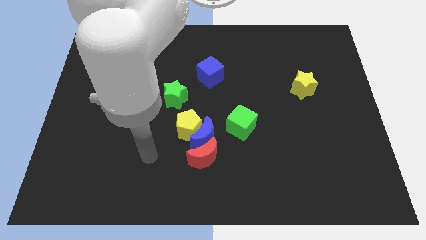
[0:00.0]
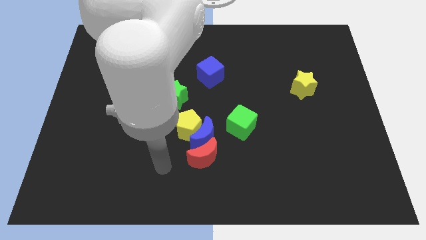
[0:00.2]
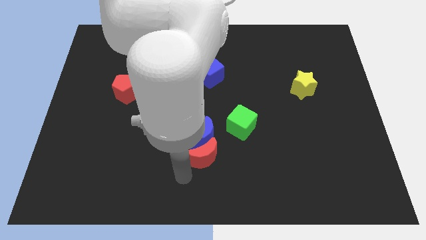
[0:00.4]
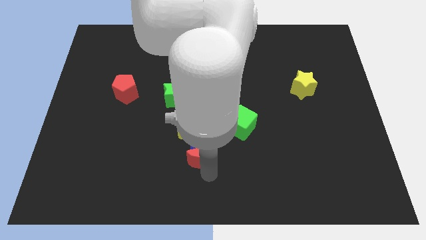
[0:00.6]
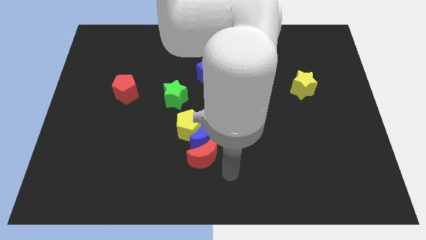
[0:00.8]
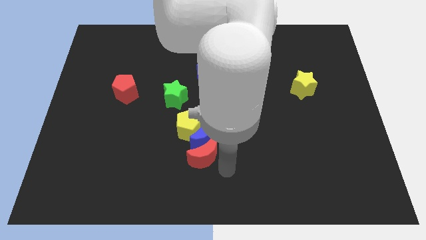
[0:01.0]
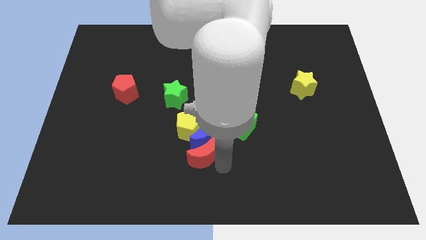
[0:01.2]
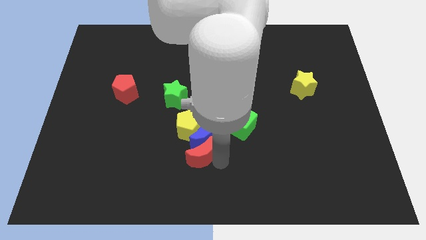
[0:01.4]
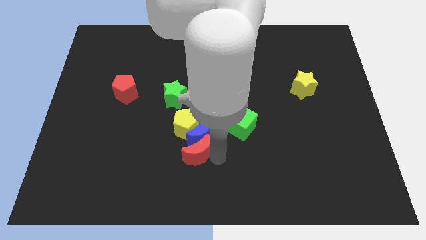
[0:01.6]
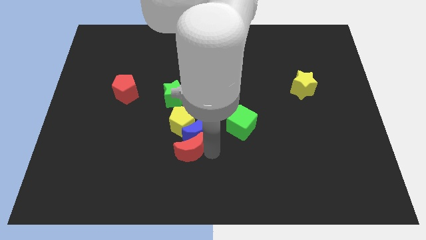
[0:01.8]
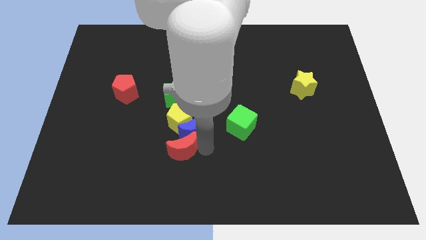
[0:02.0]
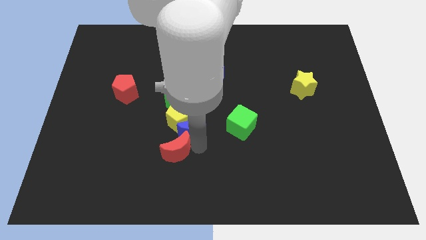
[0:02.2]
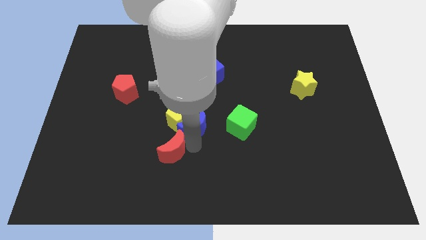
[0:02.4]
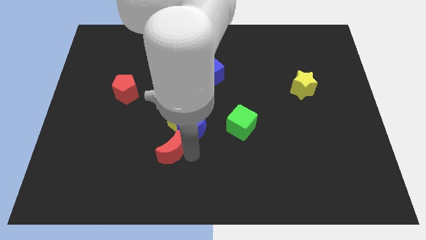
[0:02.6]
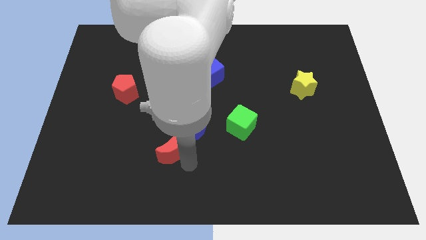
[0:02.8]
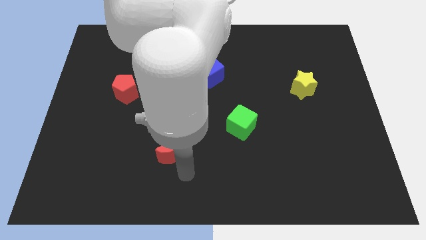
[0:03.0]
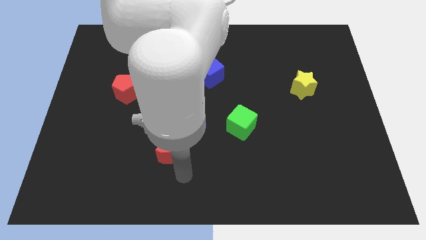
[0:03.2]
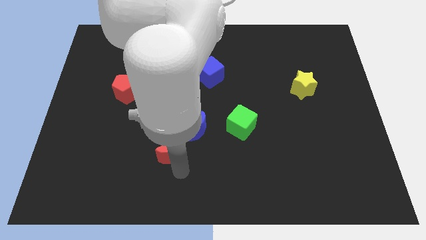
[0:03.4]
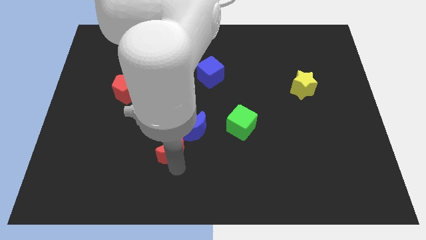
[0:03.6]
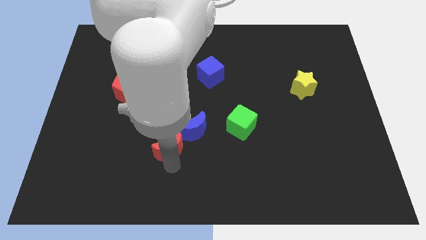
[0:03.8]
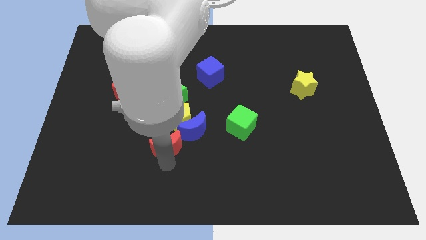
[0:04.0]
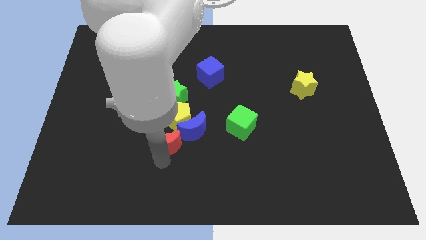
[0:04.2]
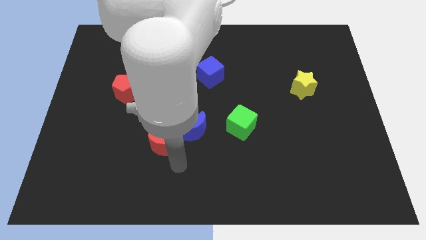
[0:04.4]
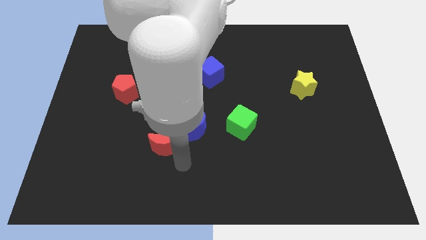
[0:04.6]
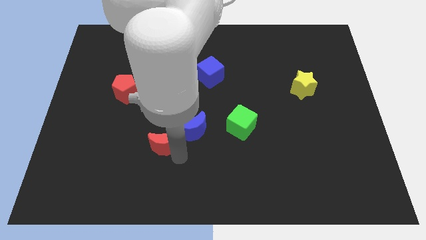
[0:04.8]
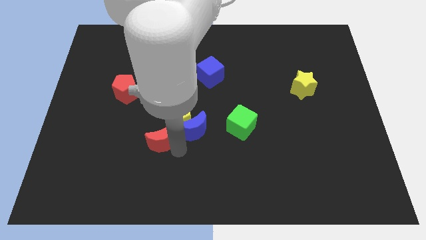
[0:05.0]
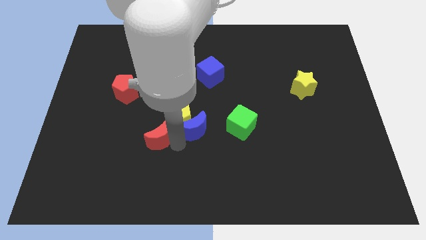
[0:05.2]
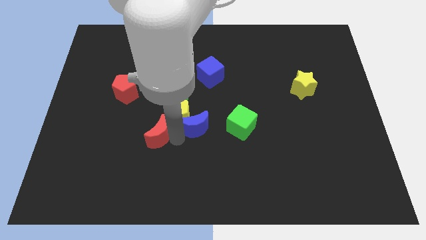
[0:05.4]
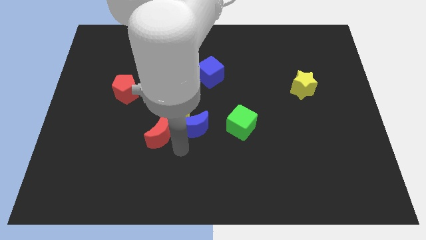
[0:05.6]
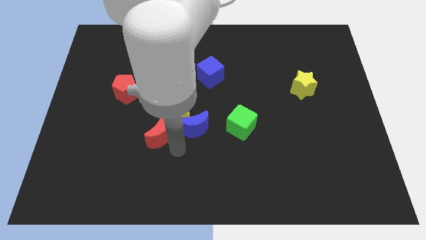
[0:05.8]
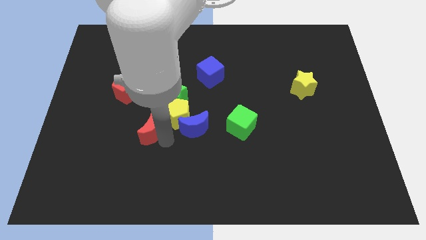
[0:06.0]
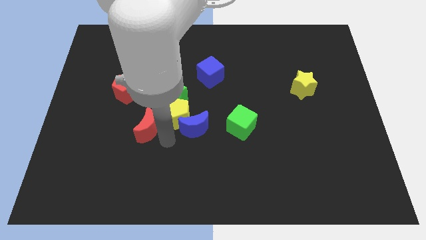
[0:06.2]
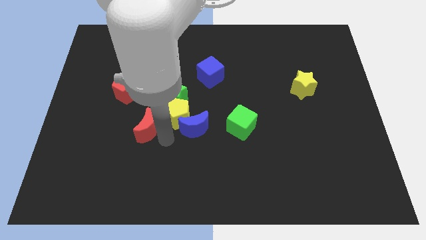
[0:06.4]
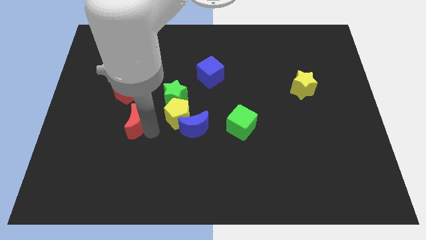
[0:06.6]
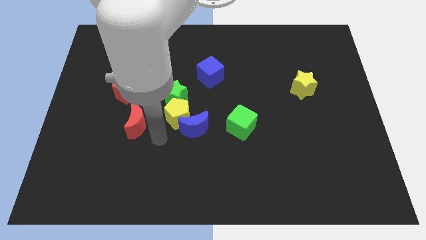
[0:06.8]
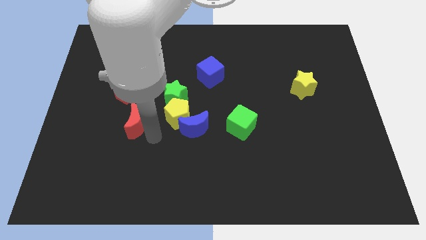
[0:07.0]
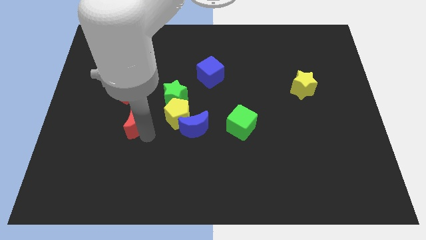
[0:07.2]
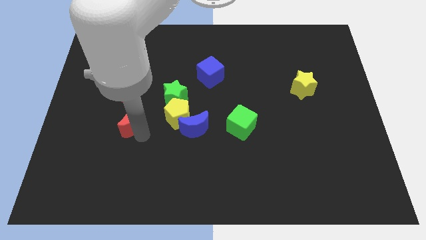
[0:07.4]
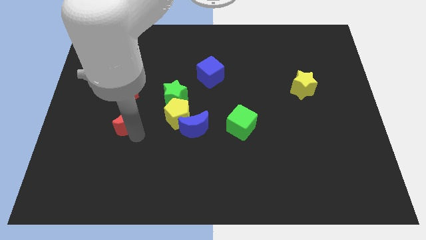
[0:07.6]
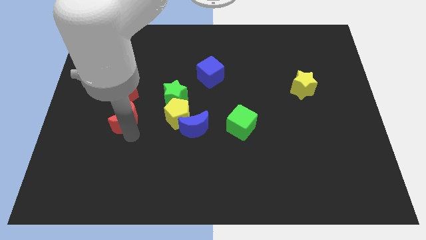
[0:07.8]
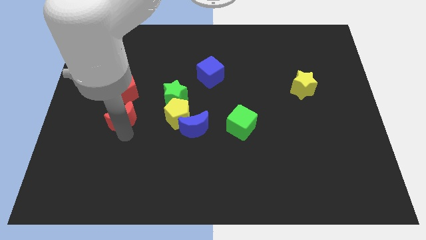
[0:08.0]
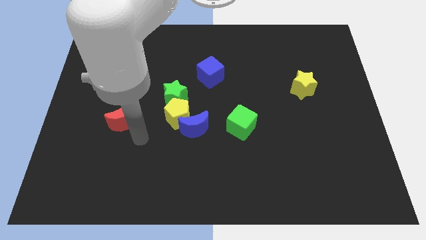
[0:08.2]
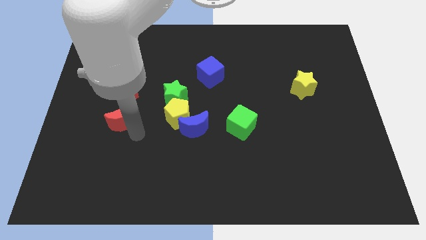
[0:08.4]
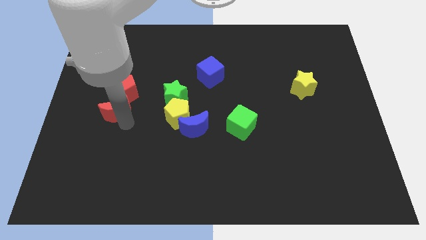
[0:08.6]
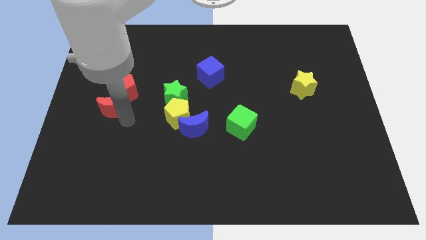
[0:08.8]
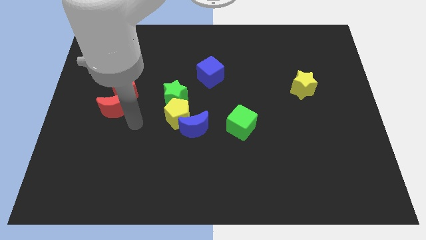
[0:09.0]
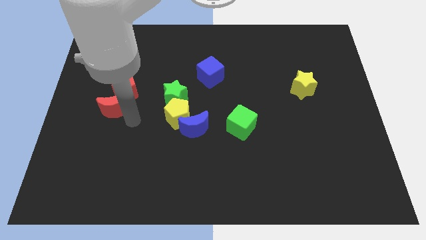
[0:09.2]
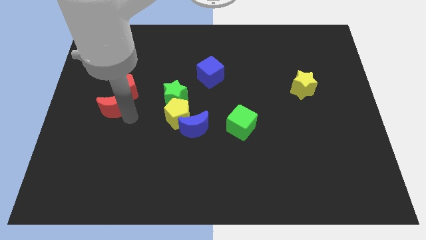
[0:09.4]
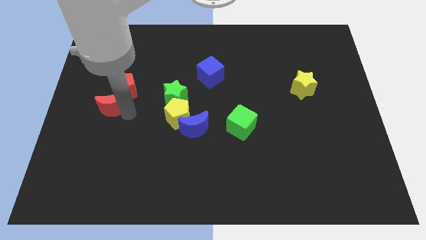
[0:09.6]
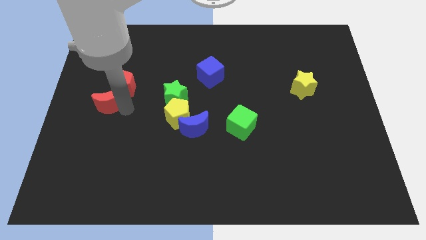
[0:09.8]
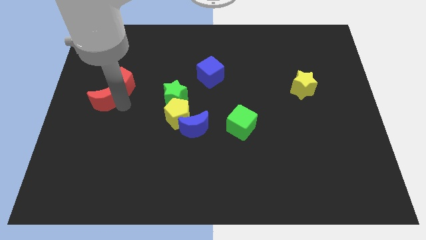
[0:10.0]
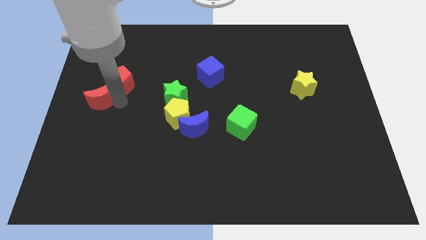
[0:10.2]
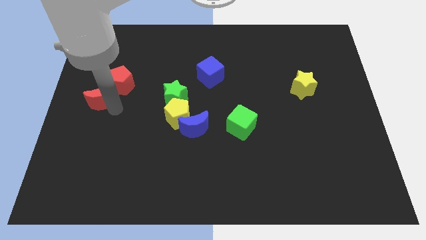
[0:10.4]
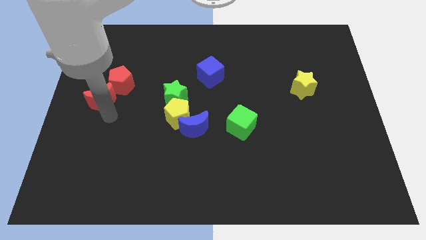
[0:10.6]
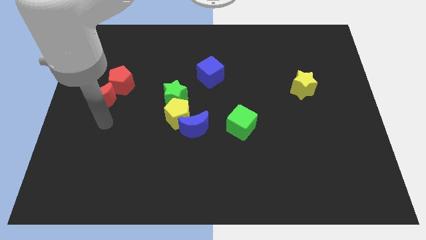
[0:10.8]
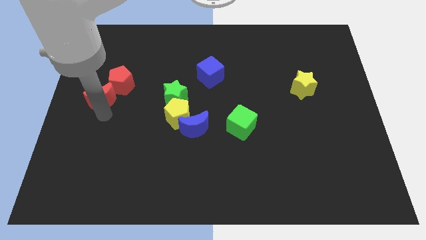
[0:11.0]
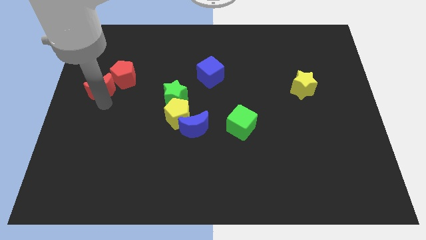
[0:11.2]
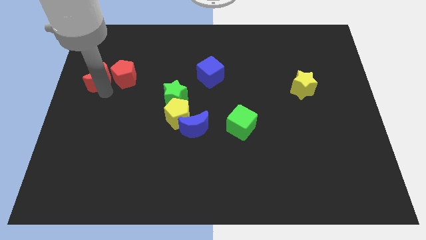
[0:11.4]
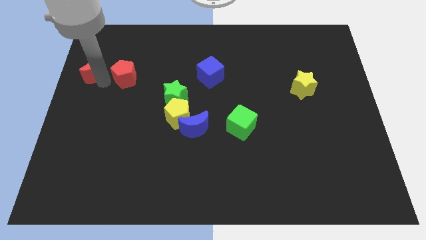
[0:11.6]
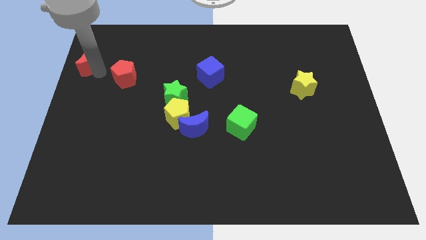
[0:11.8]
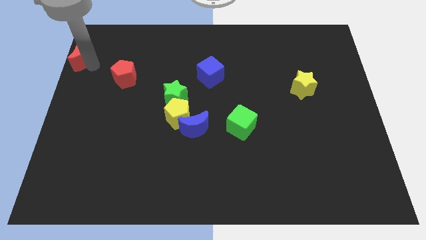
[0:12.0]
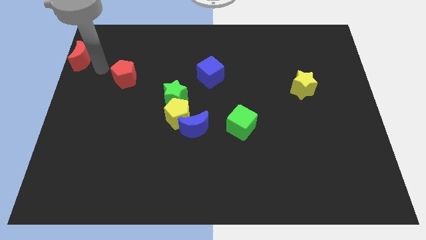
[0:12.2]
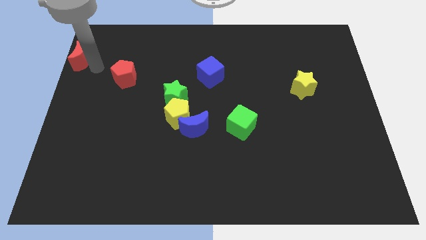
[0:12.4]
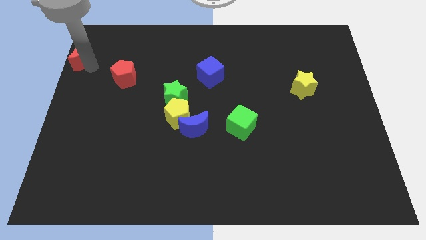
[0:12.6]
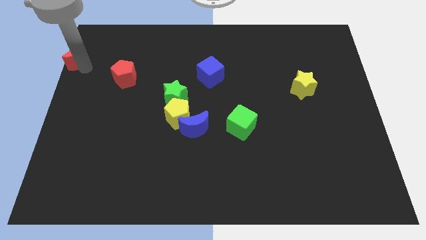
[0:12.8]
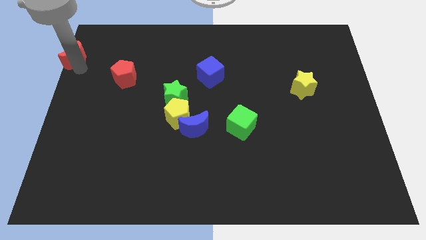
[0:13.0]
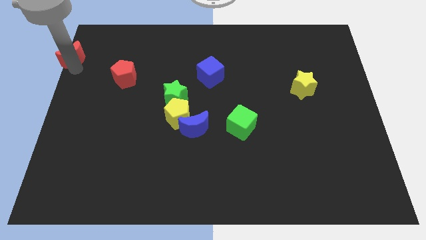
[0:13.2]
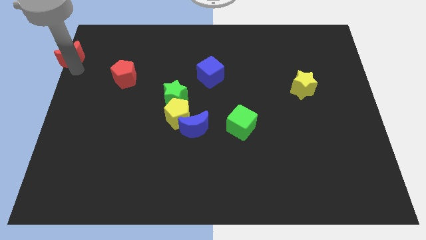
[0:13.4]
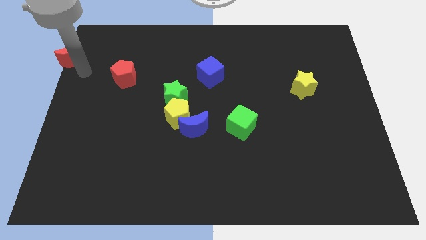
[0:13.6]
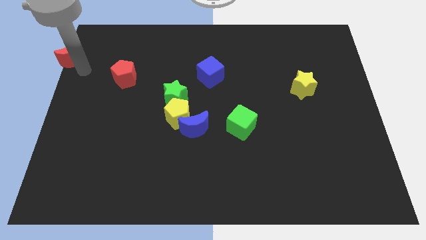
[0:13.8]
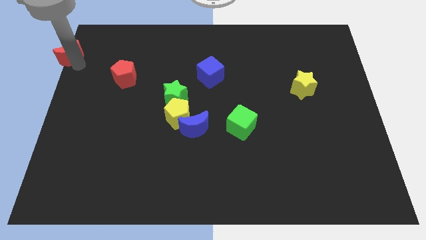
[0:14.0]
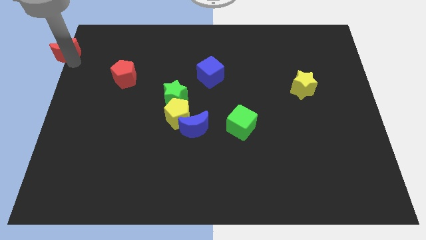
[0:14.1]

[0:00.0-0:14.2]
slide the red moon to the top left corner
